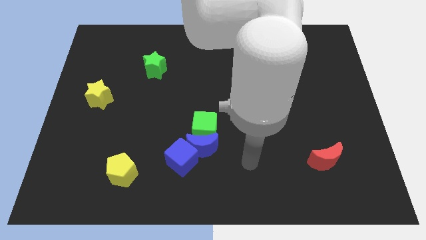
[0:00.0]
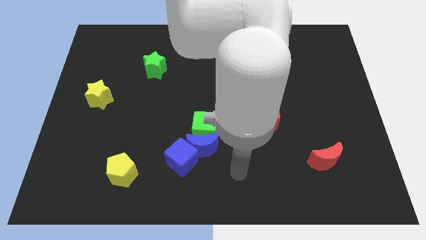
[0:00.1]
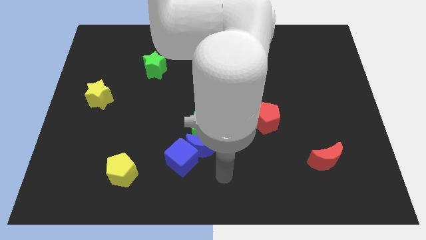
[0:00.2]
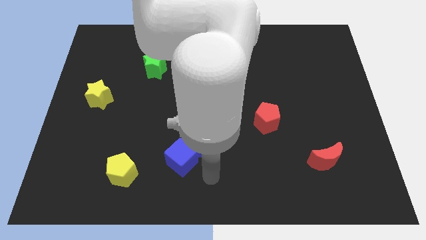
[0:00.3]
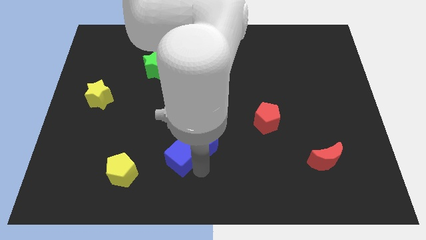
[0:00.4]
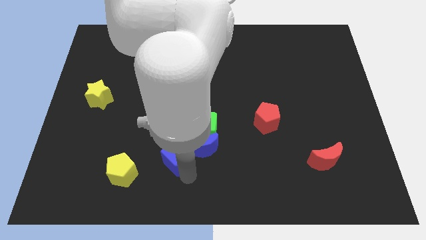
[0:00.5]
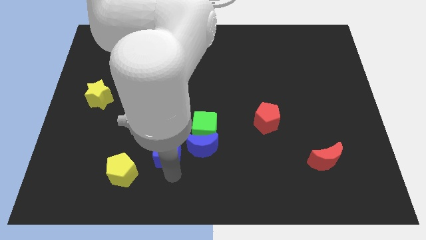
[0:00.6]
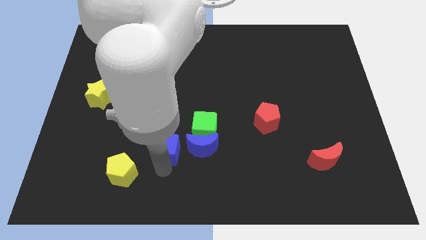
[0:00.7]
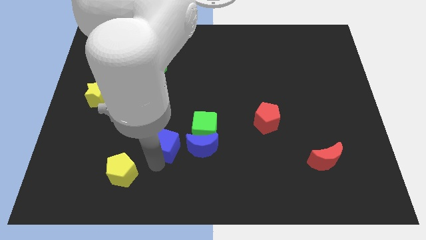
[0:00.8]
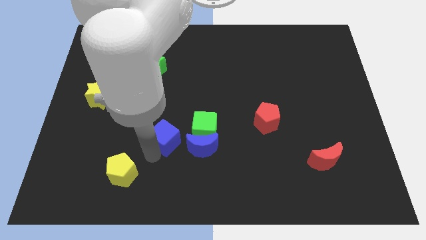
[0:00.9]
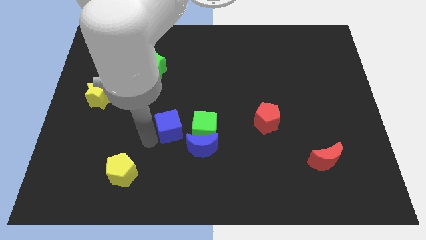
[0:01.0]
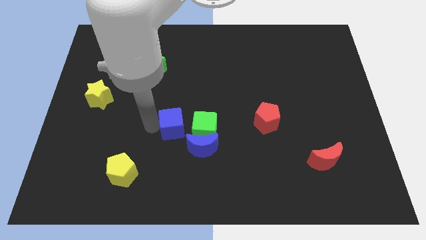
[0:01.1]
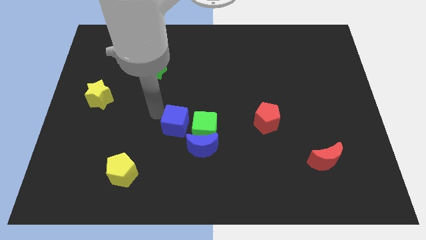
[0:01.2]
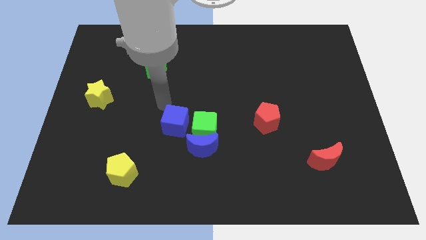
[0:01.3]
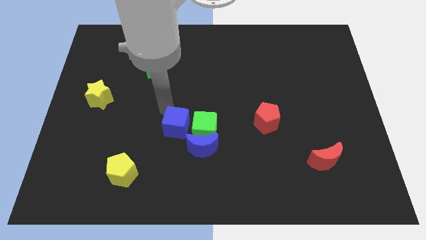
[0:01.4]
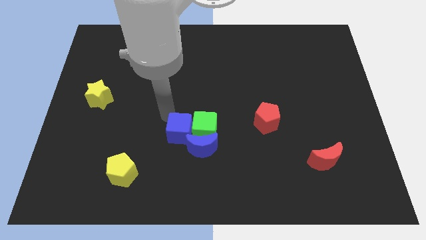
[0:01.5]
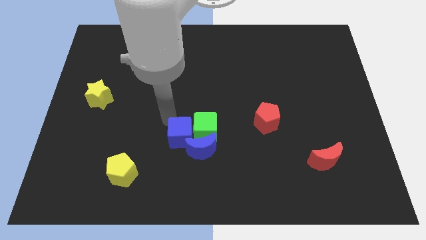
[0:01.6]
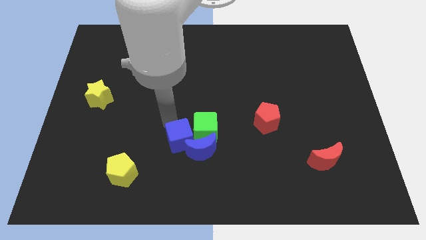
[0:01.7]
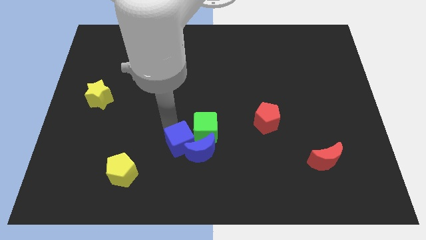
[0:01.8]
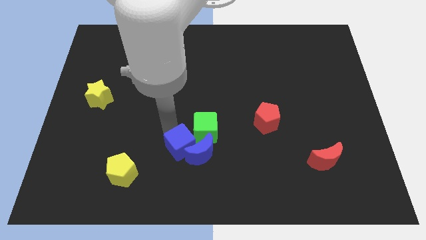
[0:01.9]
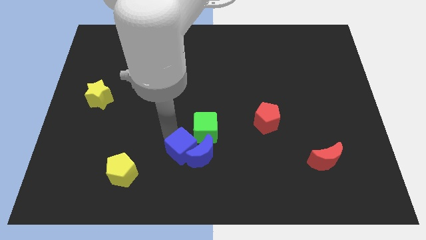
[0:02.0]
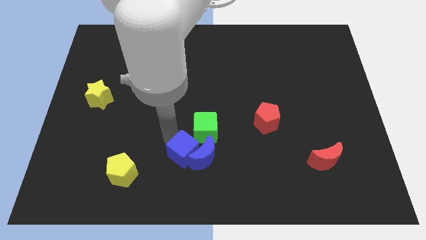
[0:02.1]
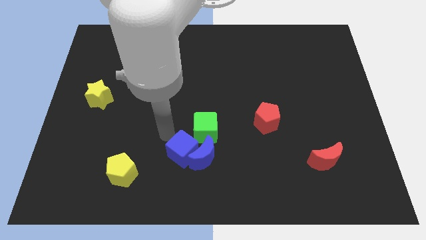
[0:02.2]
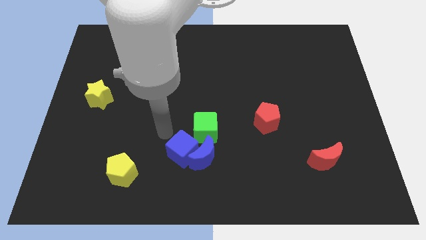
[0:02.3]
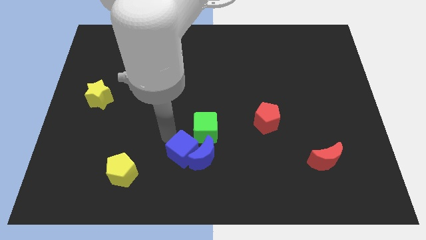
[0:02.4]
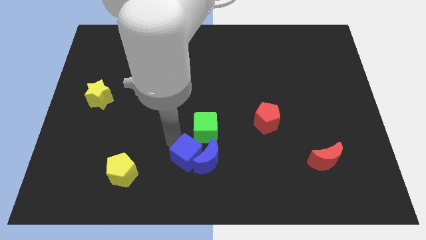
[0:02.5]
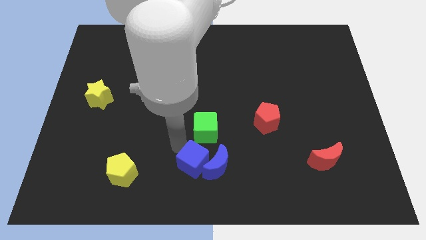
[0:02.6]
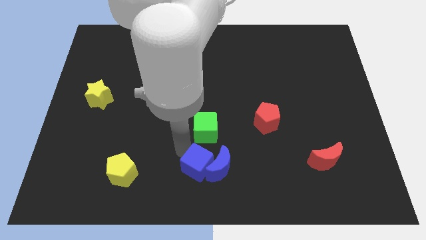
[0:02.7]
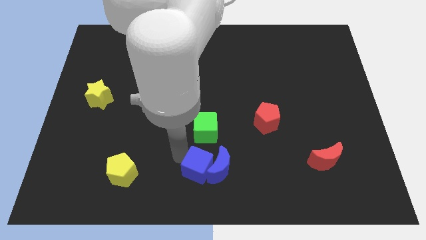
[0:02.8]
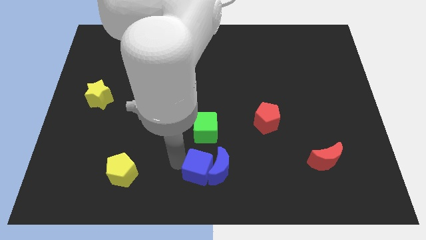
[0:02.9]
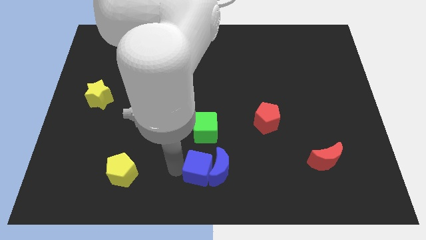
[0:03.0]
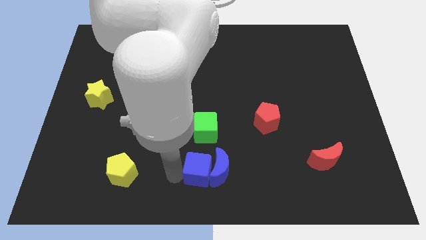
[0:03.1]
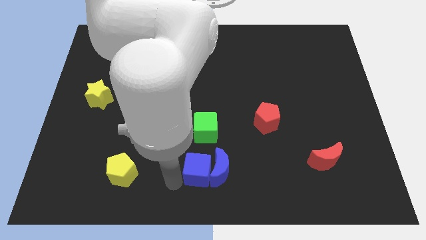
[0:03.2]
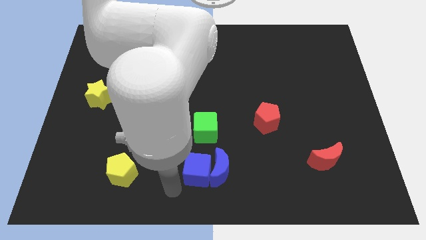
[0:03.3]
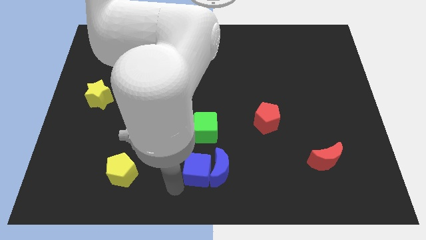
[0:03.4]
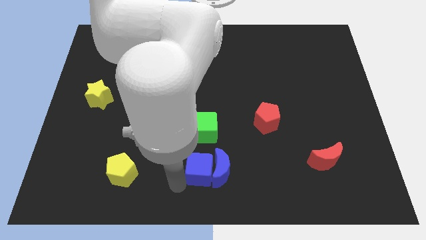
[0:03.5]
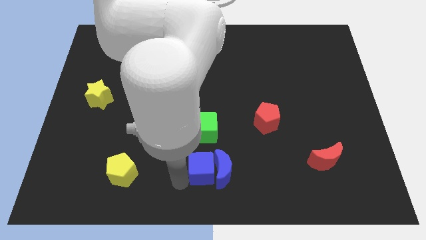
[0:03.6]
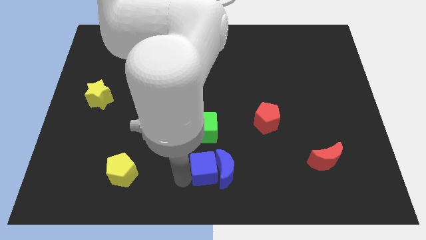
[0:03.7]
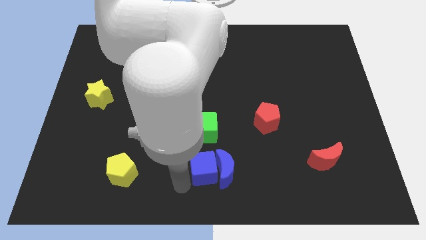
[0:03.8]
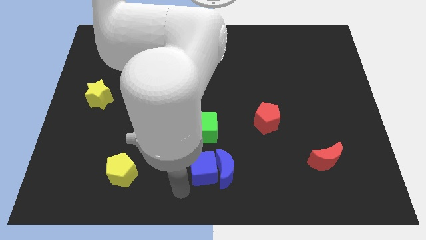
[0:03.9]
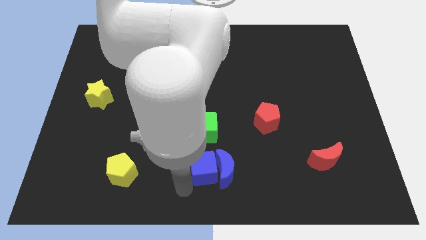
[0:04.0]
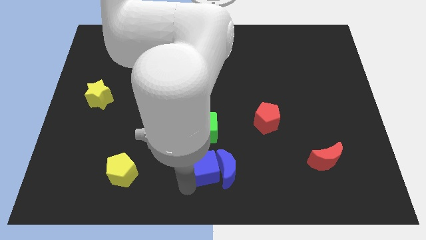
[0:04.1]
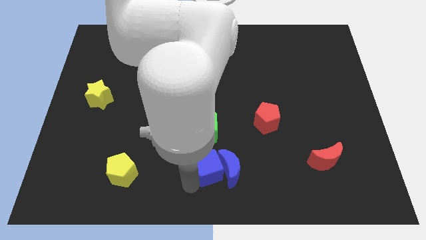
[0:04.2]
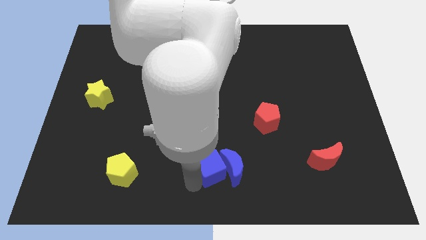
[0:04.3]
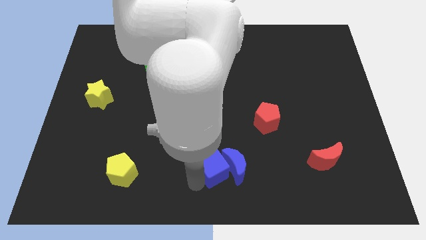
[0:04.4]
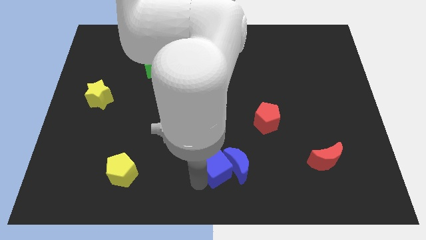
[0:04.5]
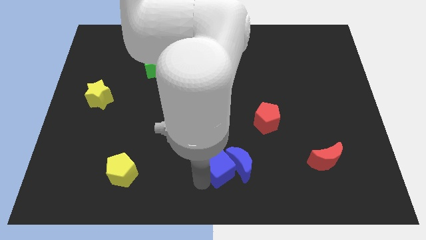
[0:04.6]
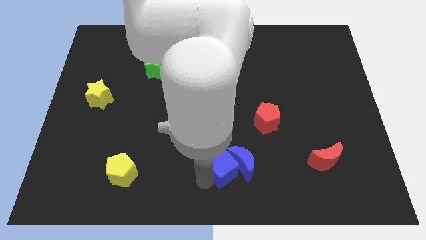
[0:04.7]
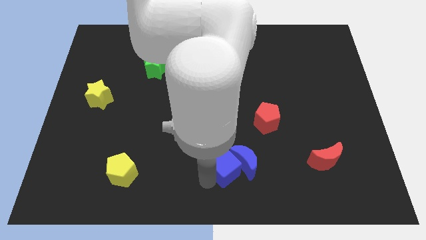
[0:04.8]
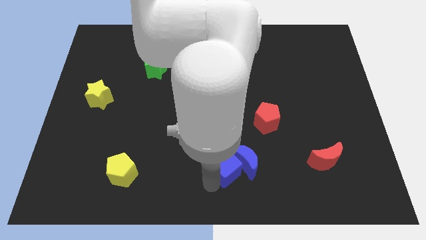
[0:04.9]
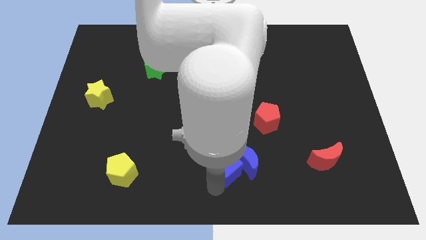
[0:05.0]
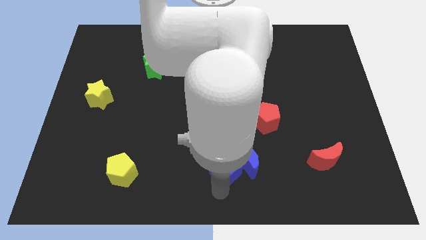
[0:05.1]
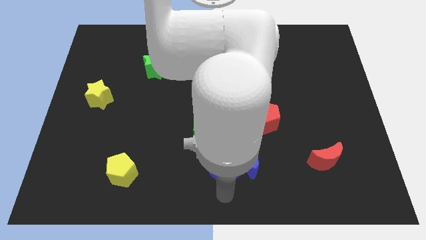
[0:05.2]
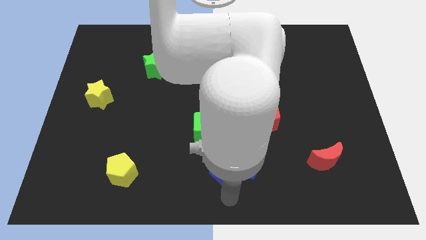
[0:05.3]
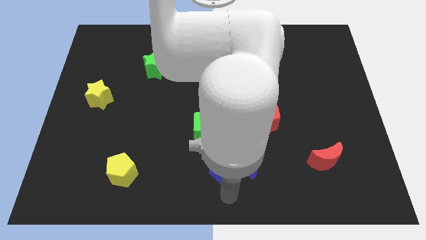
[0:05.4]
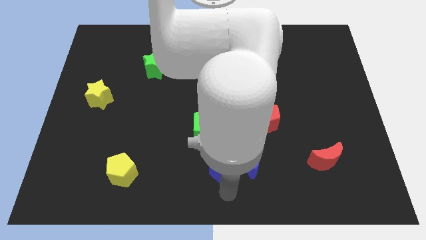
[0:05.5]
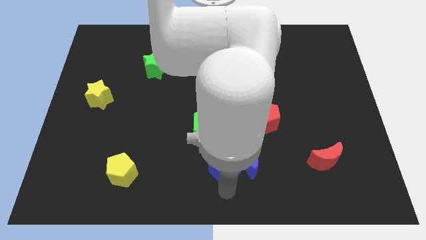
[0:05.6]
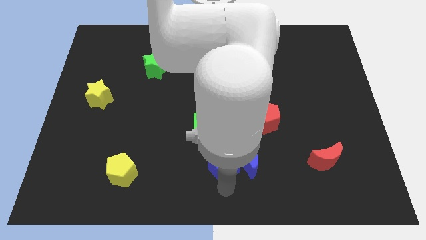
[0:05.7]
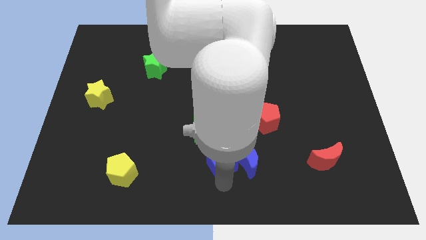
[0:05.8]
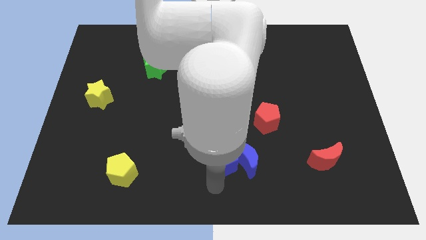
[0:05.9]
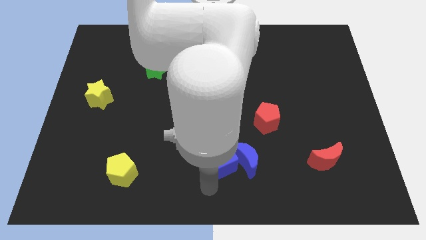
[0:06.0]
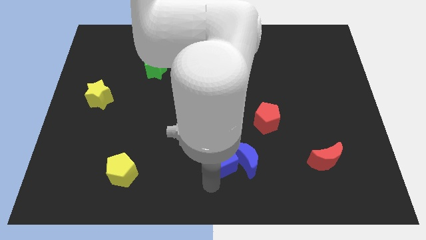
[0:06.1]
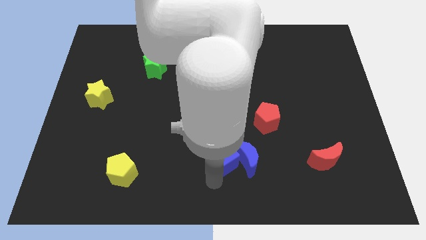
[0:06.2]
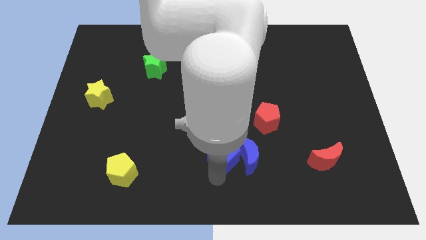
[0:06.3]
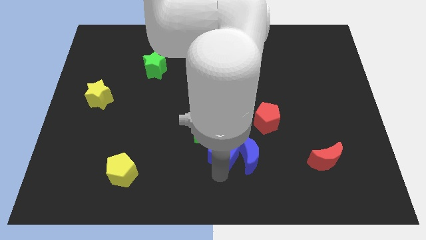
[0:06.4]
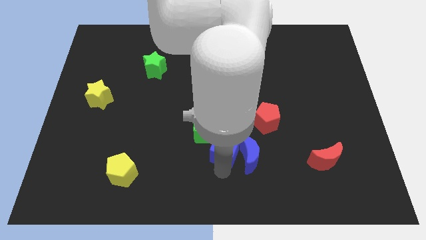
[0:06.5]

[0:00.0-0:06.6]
move the blue cube slightly diagonally upwards and to the right

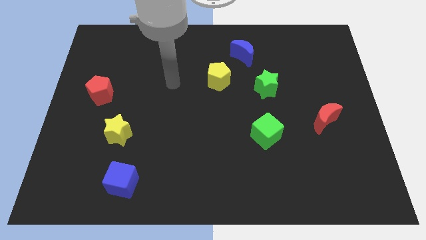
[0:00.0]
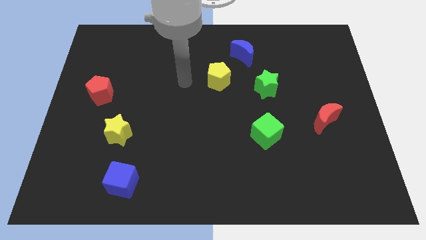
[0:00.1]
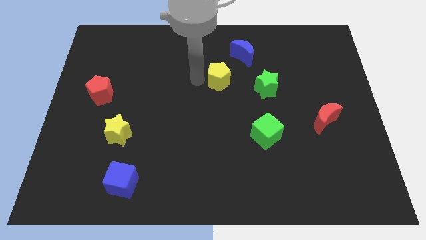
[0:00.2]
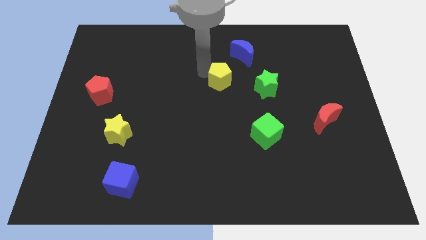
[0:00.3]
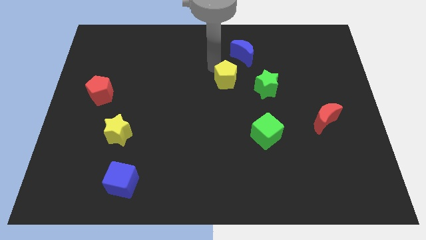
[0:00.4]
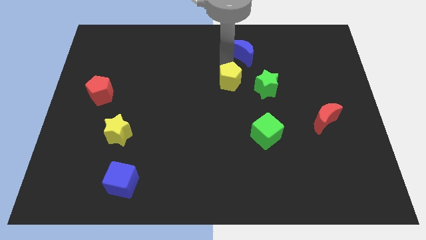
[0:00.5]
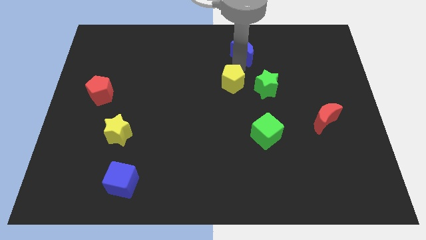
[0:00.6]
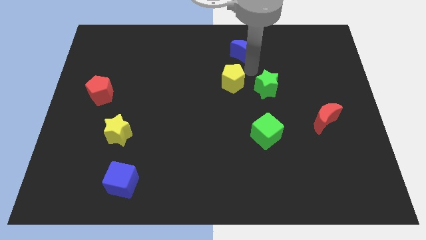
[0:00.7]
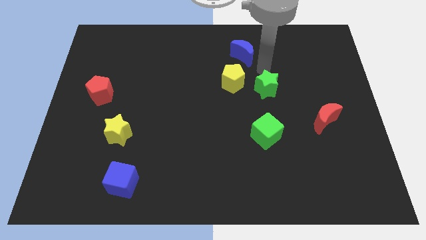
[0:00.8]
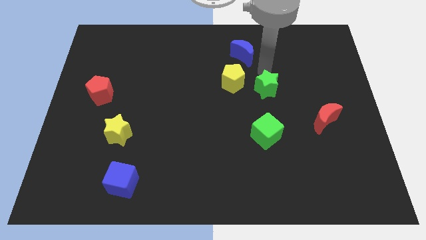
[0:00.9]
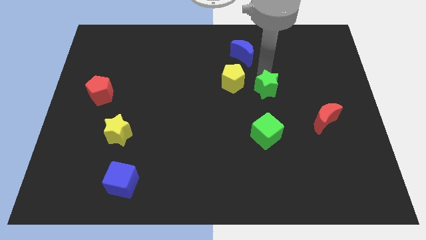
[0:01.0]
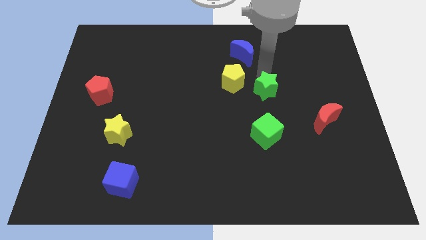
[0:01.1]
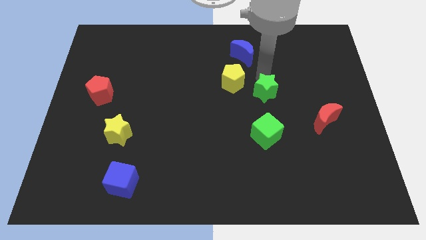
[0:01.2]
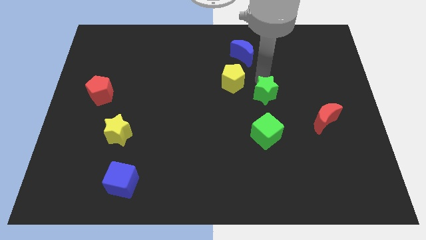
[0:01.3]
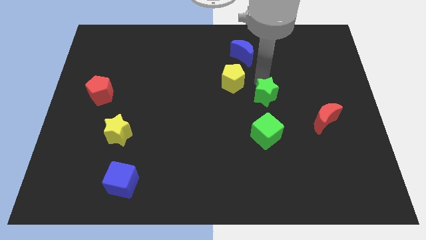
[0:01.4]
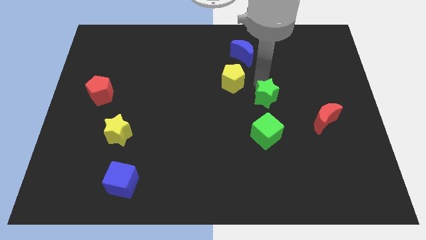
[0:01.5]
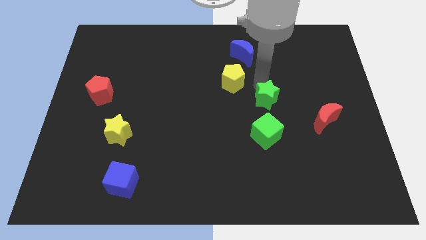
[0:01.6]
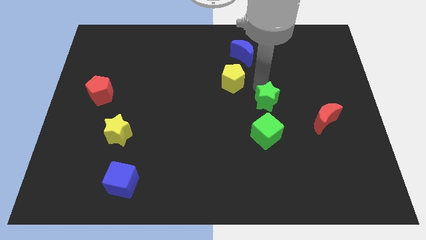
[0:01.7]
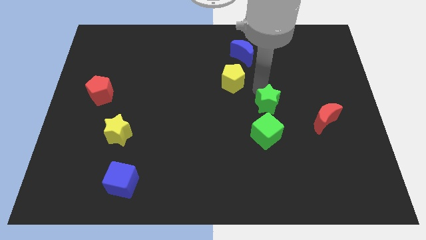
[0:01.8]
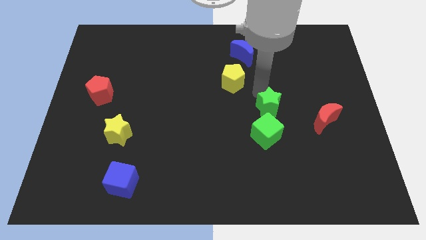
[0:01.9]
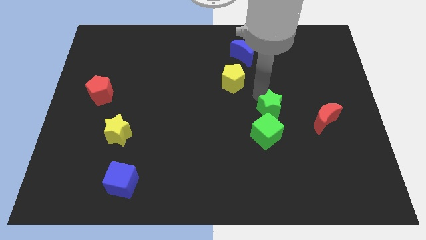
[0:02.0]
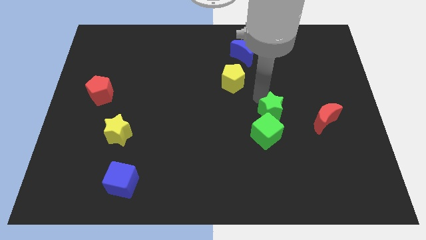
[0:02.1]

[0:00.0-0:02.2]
push the green star a little down
